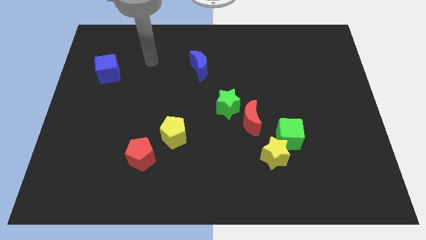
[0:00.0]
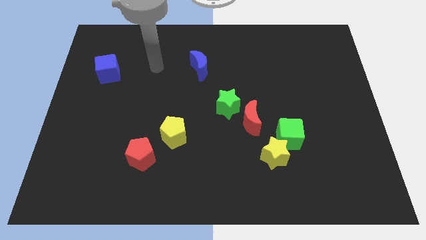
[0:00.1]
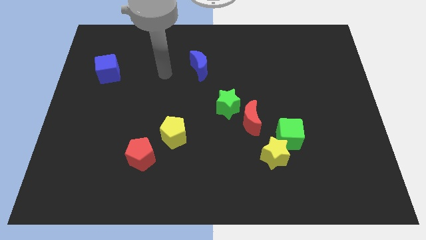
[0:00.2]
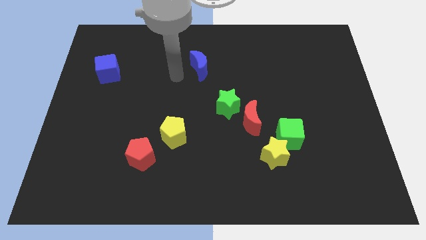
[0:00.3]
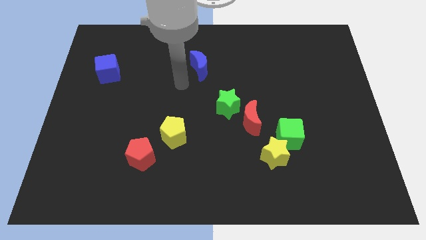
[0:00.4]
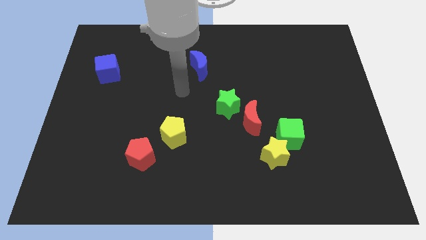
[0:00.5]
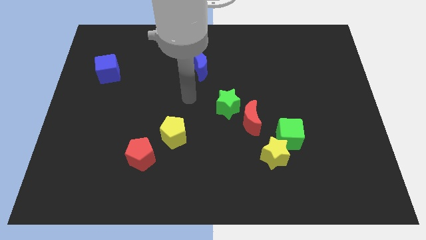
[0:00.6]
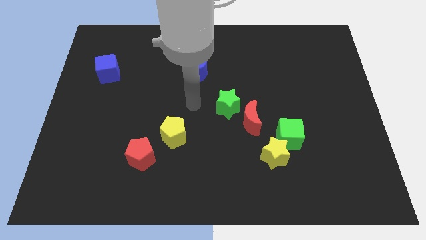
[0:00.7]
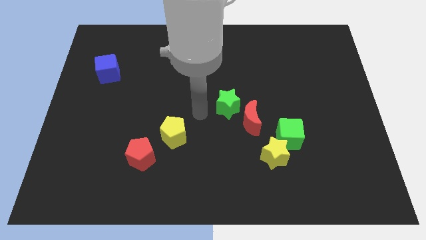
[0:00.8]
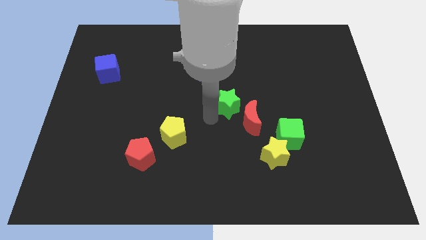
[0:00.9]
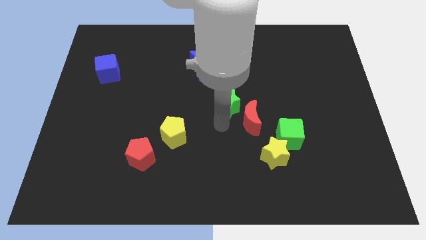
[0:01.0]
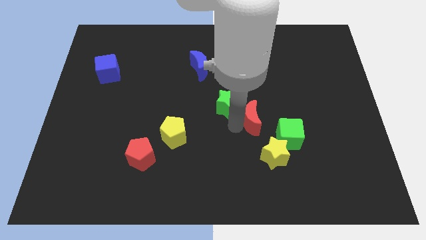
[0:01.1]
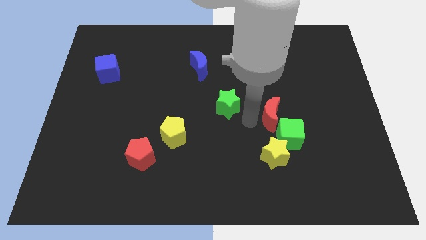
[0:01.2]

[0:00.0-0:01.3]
separate the green star from the red moon

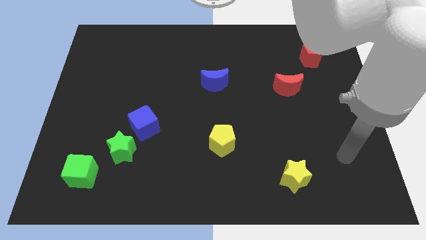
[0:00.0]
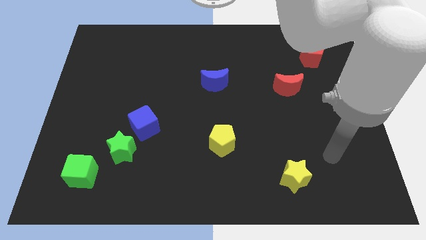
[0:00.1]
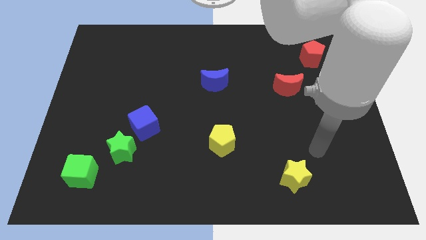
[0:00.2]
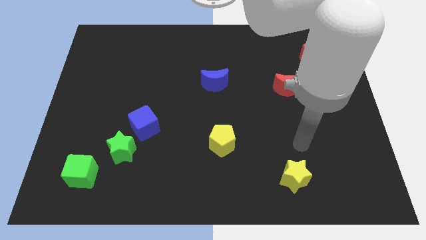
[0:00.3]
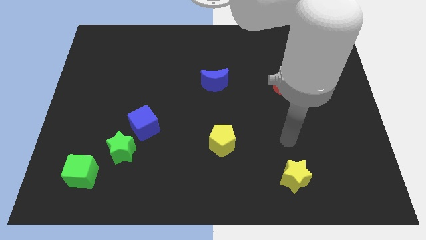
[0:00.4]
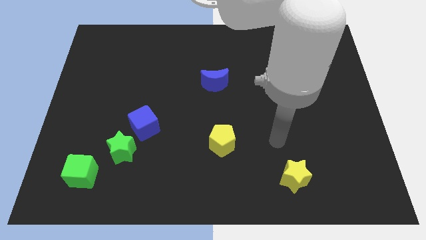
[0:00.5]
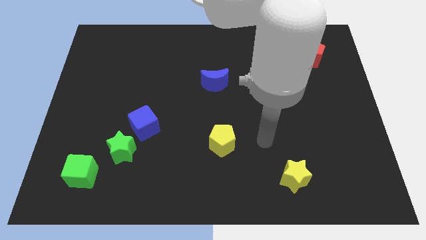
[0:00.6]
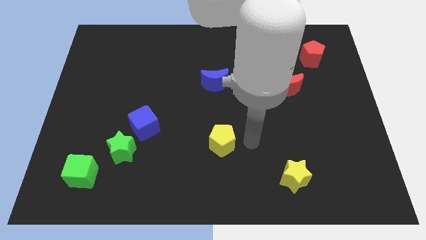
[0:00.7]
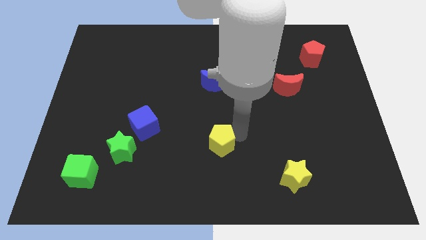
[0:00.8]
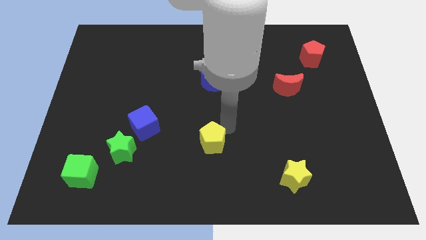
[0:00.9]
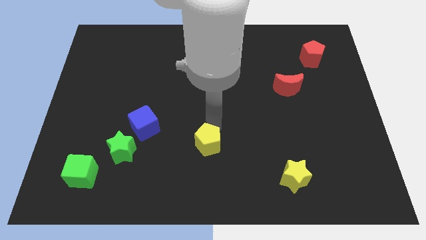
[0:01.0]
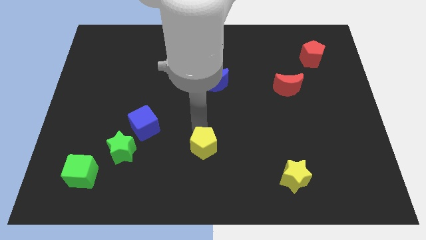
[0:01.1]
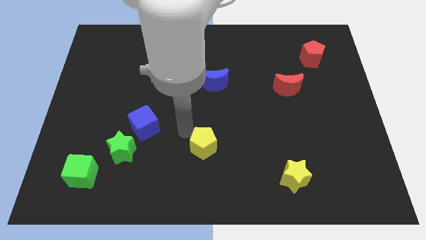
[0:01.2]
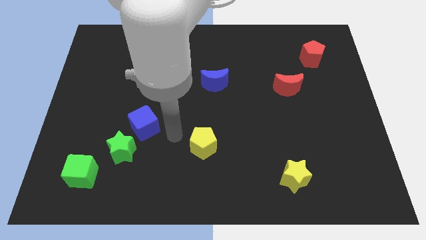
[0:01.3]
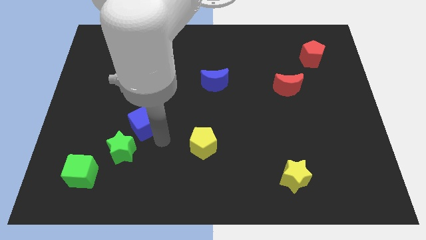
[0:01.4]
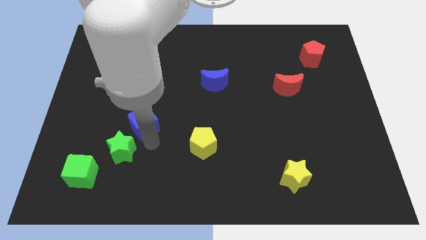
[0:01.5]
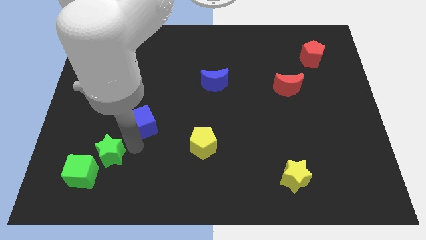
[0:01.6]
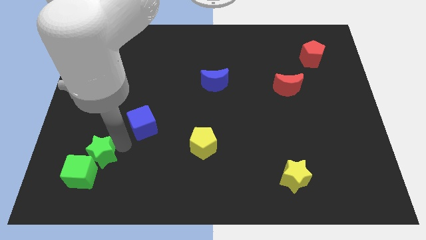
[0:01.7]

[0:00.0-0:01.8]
move the blue cube away from the green star

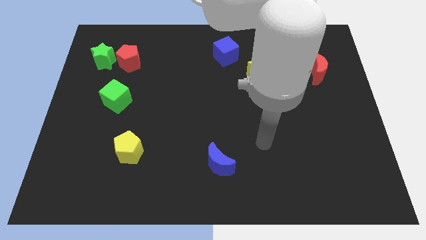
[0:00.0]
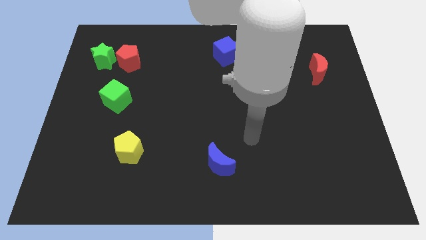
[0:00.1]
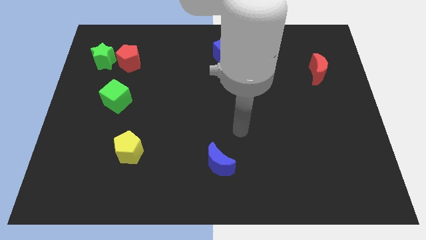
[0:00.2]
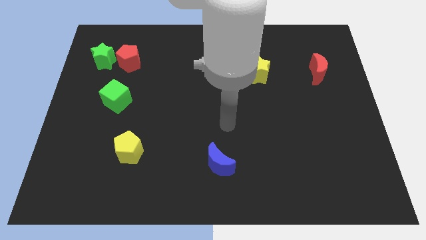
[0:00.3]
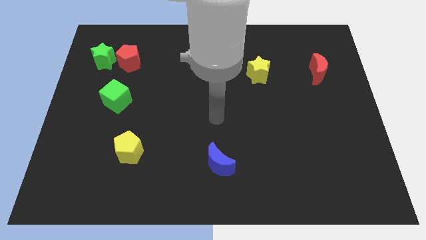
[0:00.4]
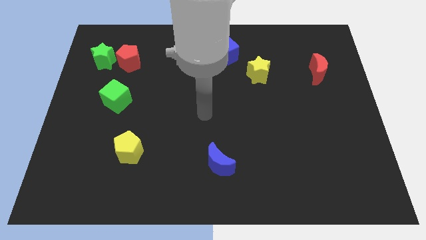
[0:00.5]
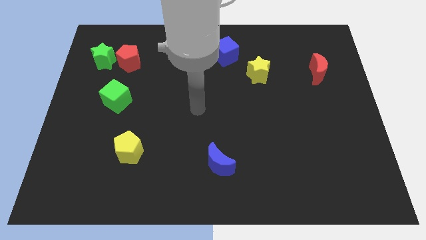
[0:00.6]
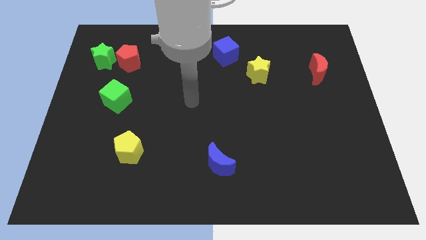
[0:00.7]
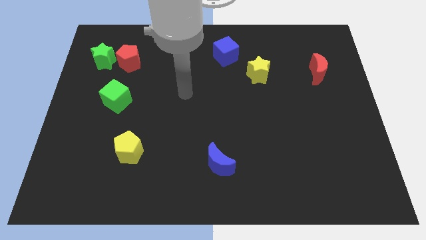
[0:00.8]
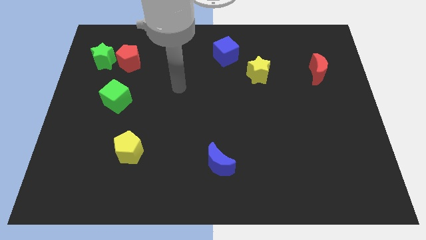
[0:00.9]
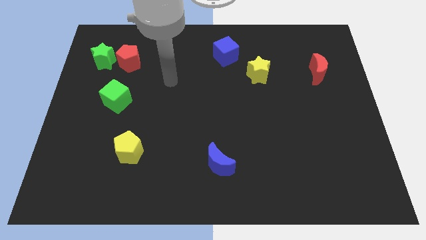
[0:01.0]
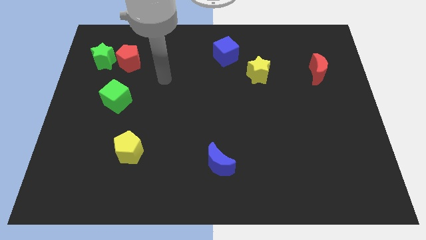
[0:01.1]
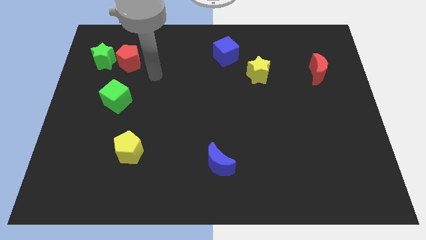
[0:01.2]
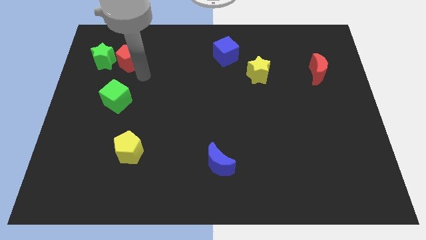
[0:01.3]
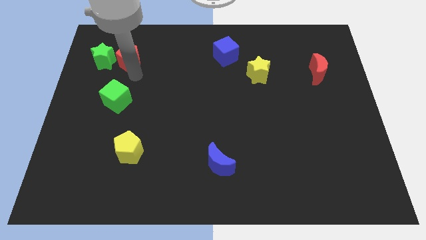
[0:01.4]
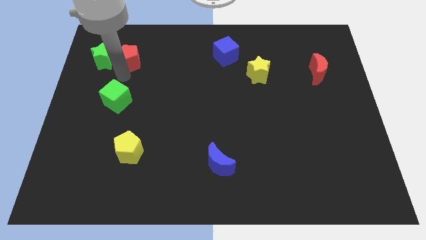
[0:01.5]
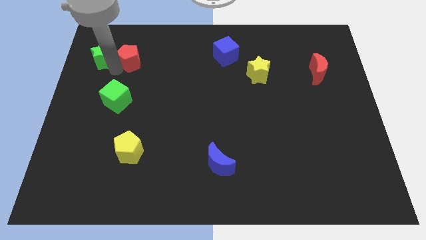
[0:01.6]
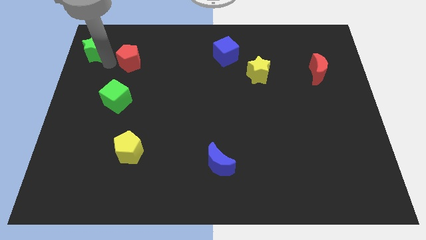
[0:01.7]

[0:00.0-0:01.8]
move the red pentagon away from the green star

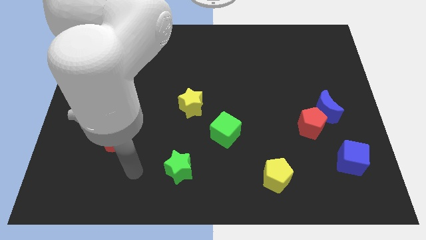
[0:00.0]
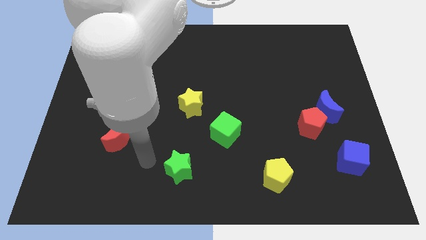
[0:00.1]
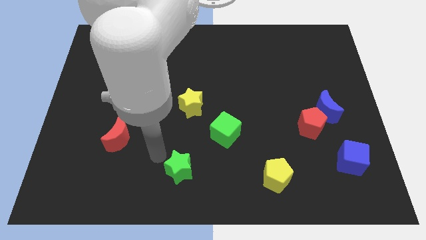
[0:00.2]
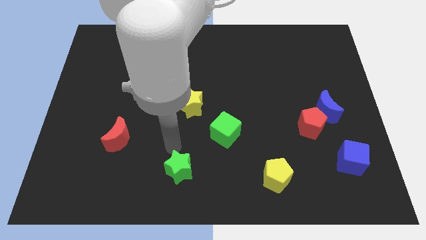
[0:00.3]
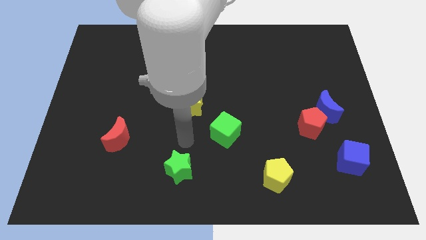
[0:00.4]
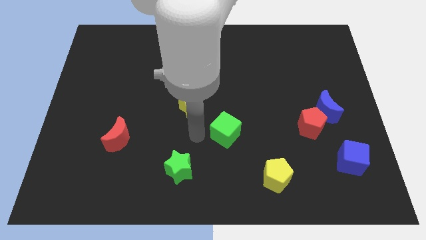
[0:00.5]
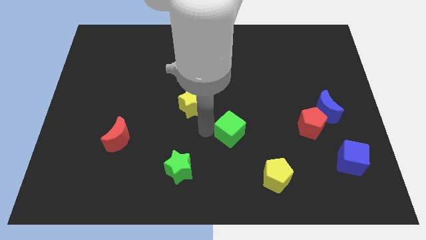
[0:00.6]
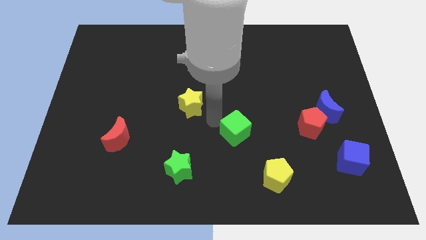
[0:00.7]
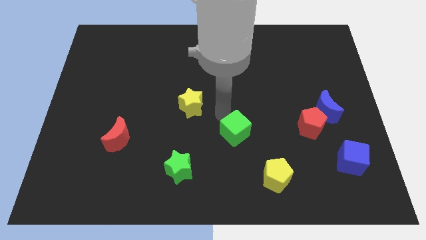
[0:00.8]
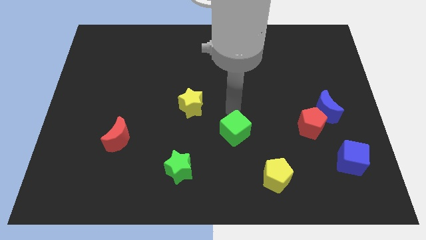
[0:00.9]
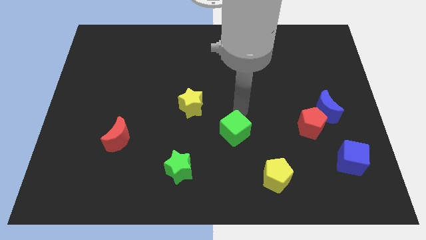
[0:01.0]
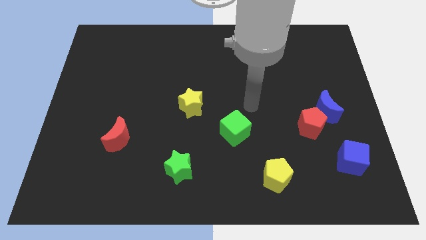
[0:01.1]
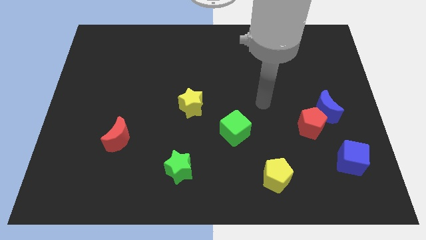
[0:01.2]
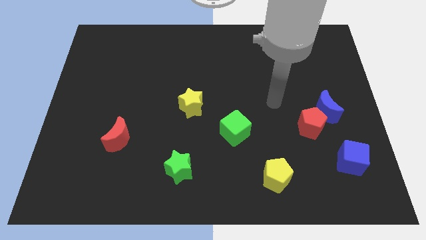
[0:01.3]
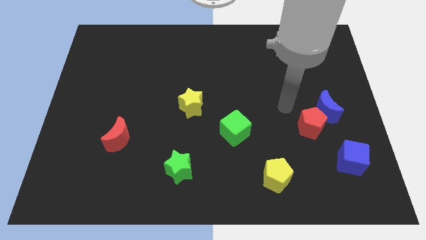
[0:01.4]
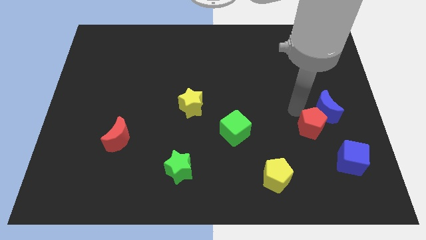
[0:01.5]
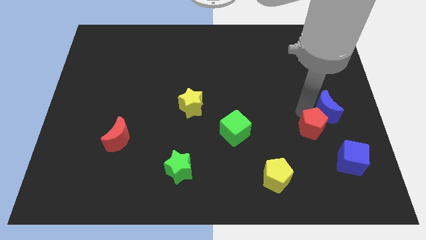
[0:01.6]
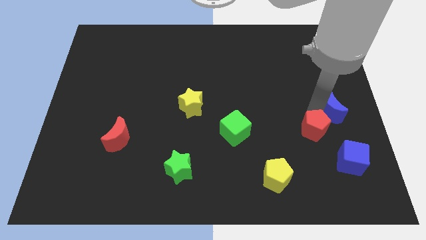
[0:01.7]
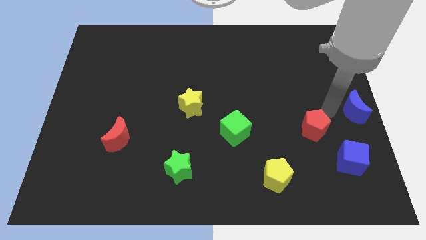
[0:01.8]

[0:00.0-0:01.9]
pull the red pentagon apart from the blue moon

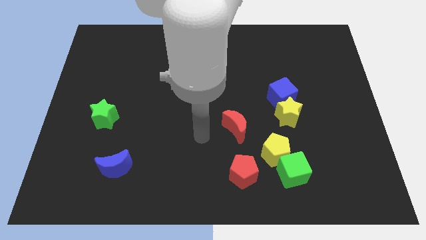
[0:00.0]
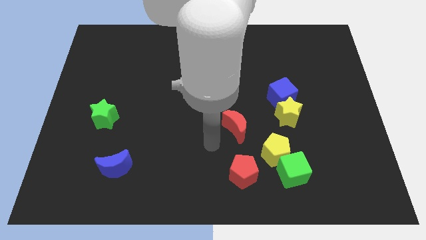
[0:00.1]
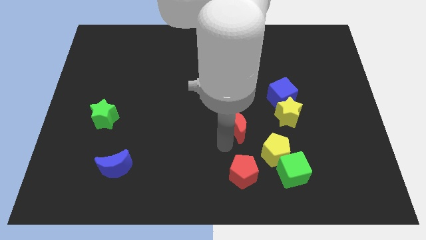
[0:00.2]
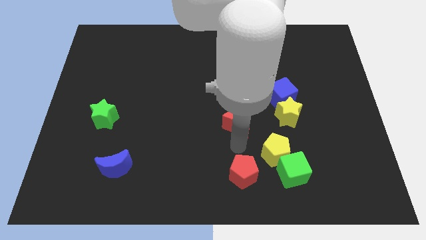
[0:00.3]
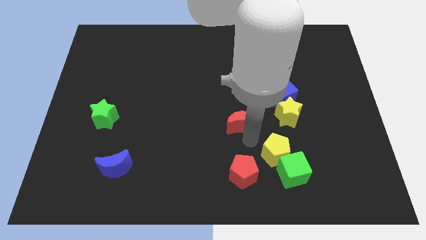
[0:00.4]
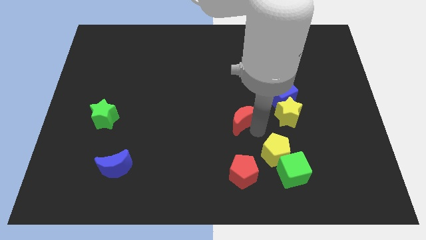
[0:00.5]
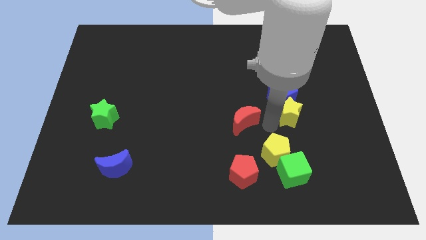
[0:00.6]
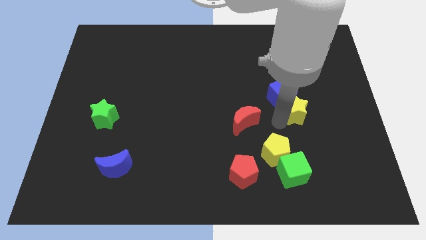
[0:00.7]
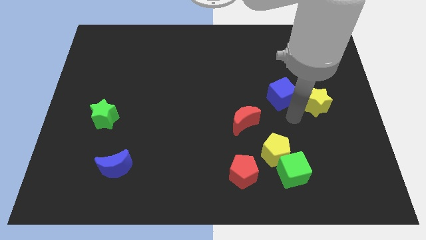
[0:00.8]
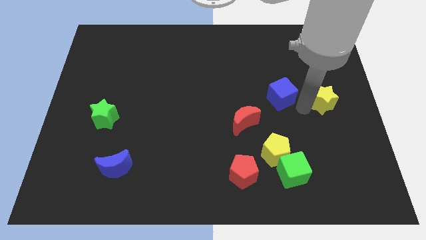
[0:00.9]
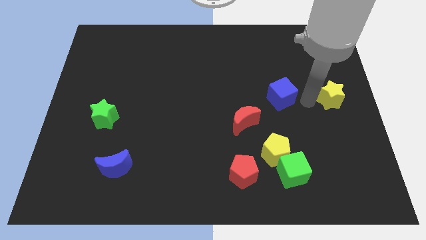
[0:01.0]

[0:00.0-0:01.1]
separate the blue cube from the yellow star

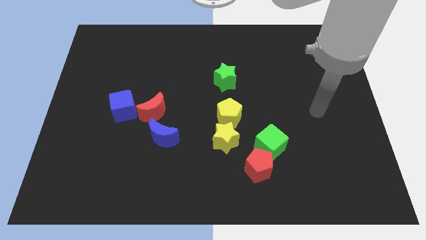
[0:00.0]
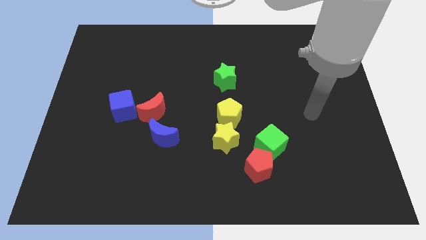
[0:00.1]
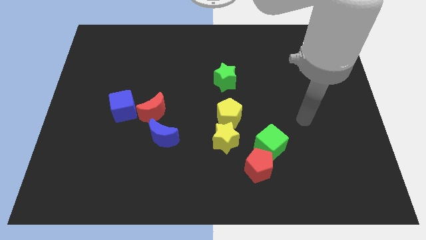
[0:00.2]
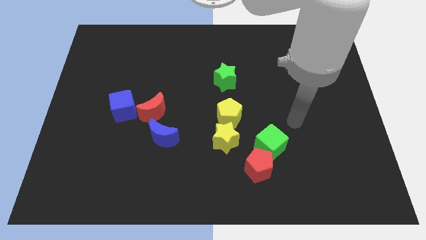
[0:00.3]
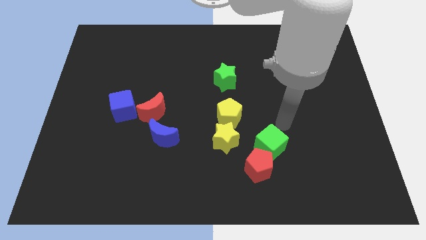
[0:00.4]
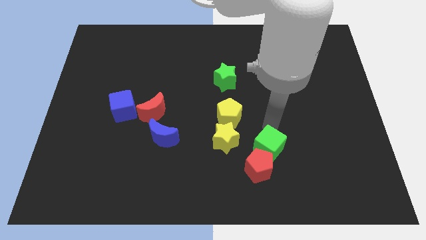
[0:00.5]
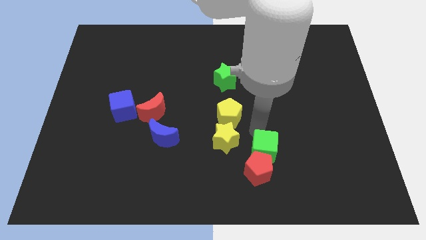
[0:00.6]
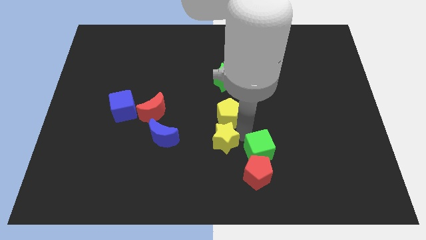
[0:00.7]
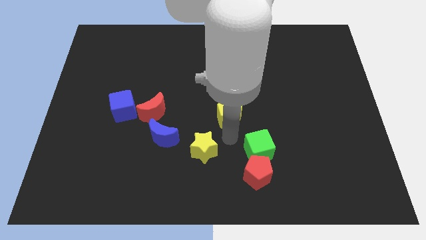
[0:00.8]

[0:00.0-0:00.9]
pull the yellow pentagon apart from the yellow star

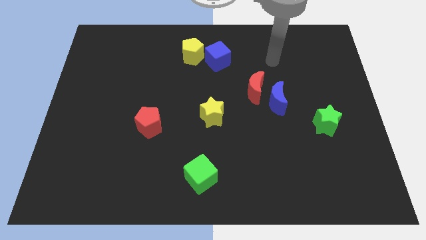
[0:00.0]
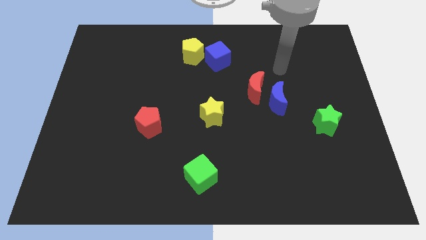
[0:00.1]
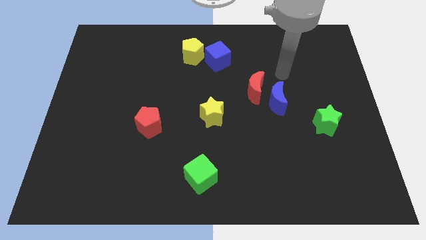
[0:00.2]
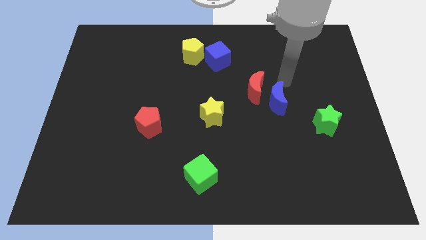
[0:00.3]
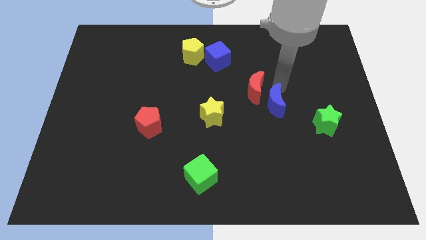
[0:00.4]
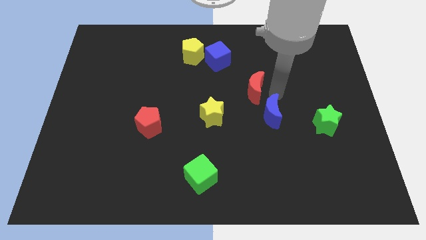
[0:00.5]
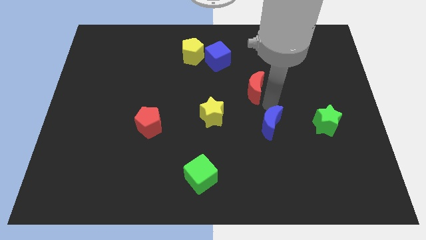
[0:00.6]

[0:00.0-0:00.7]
separate the red moon from the blue moon
